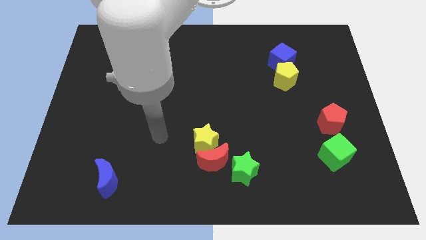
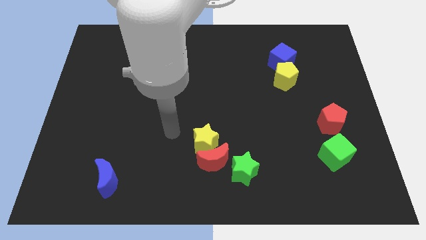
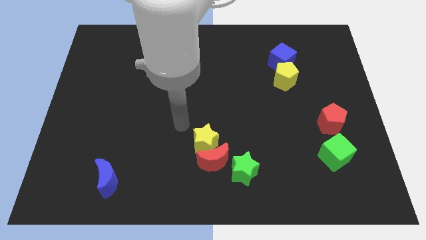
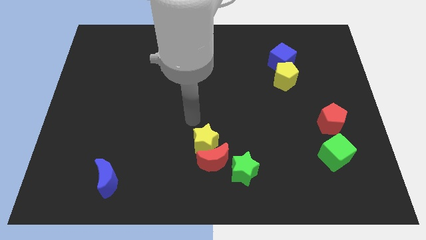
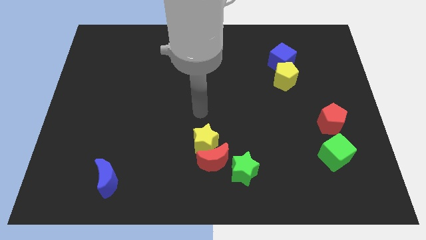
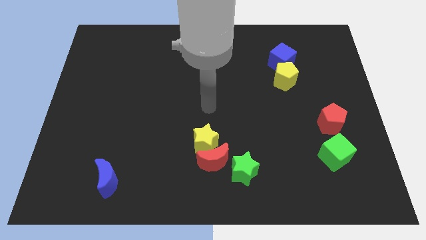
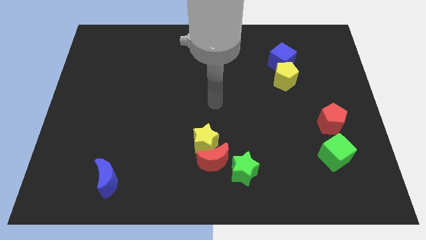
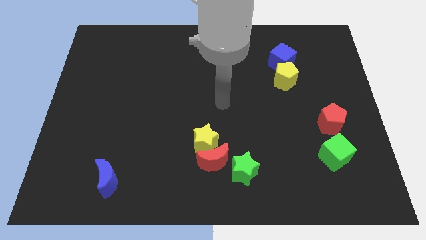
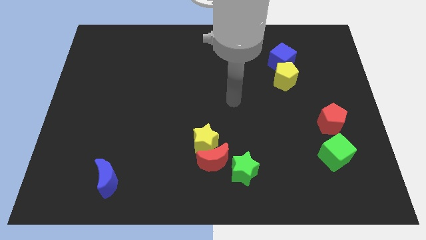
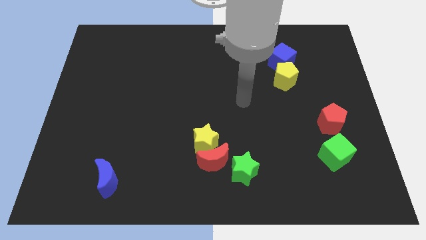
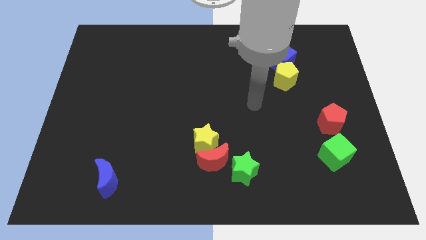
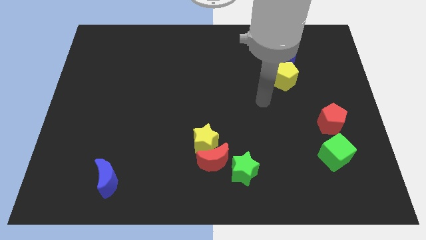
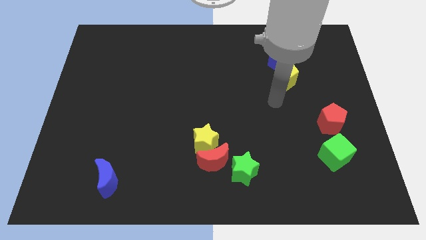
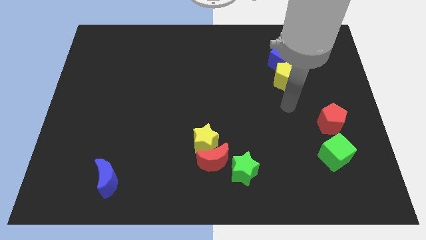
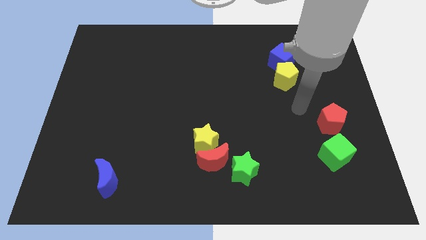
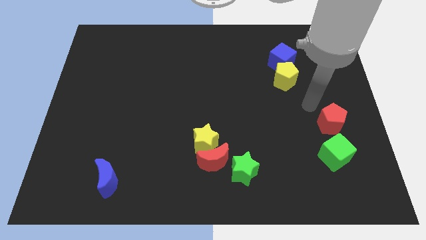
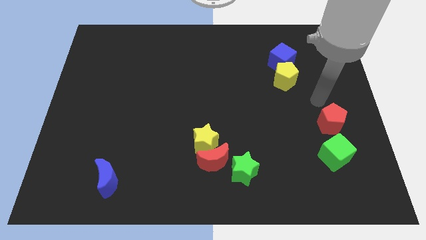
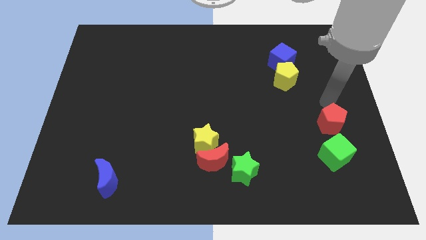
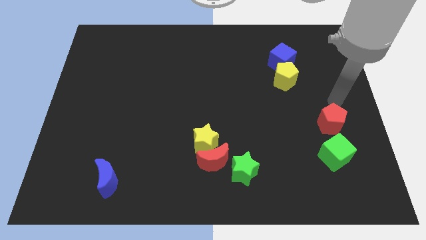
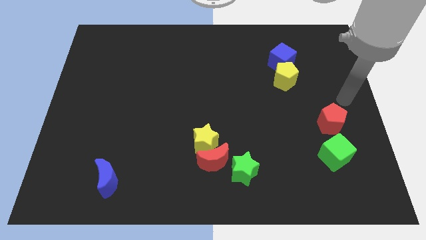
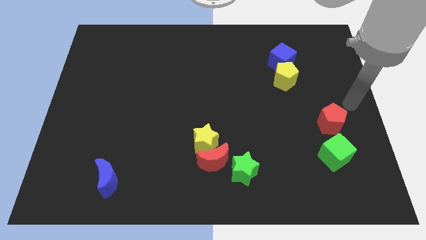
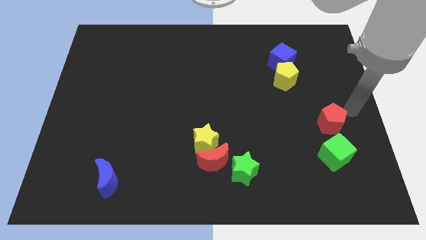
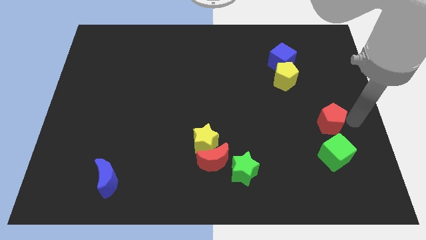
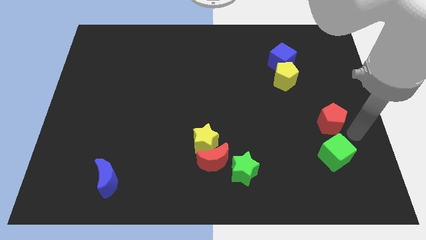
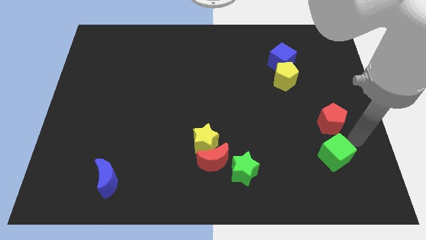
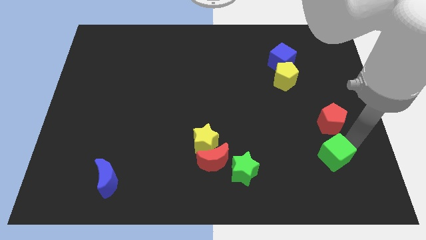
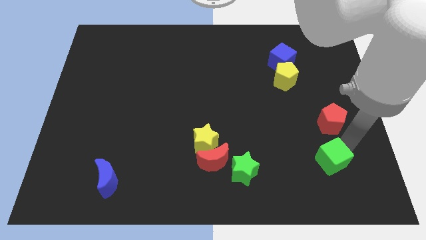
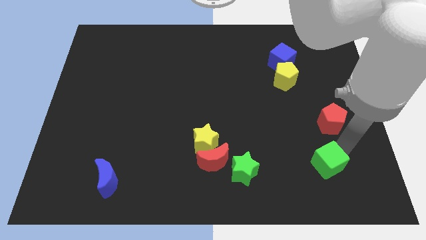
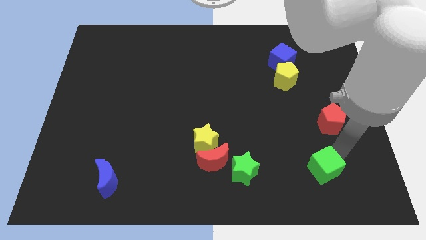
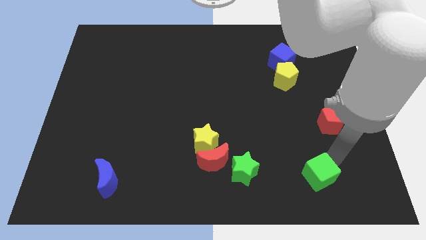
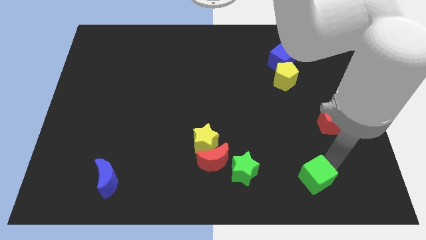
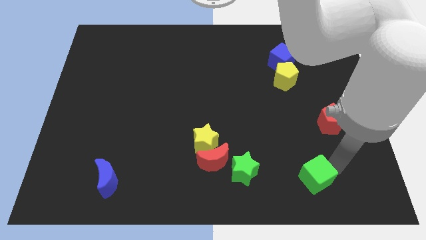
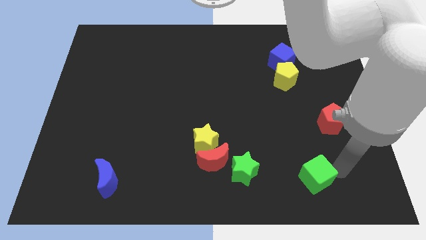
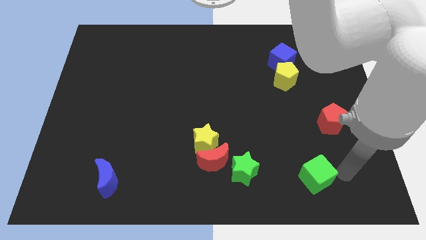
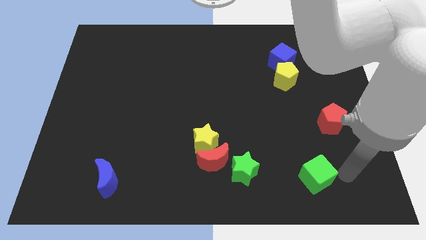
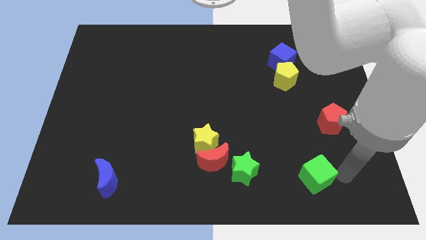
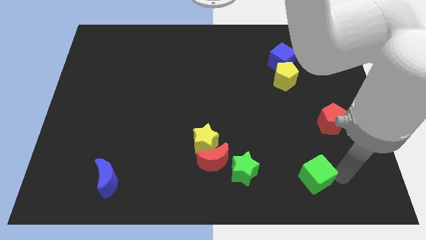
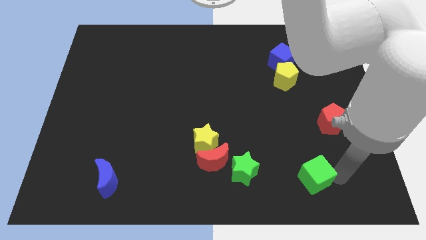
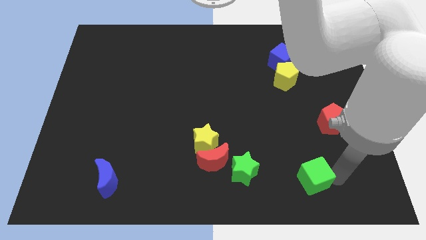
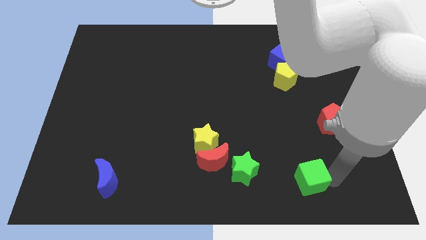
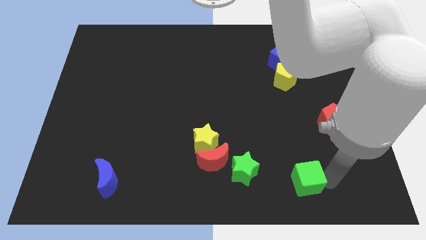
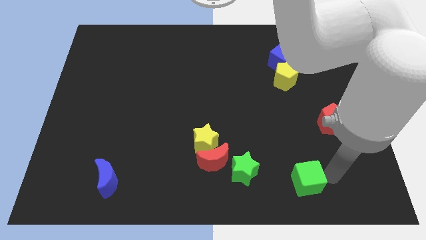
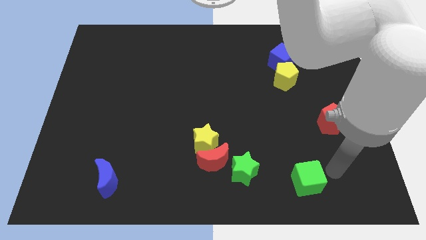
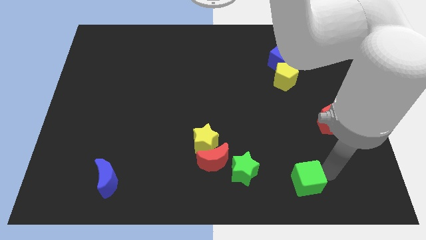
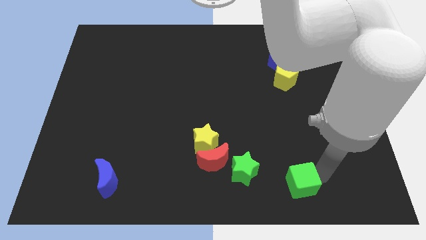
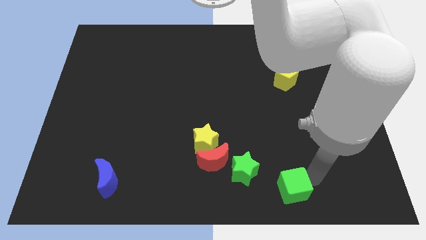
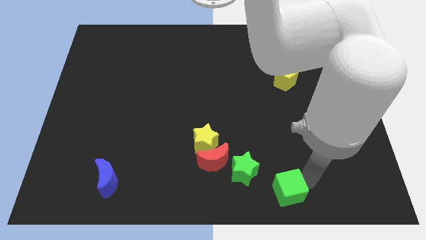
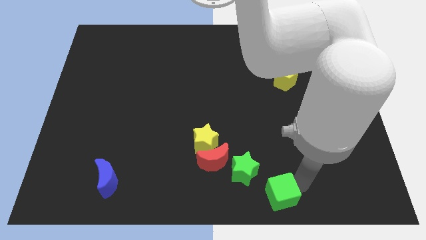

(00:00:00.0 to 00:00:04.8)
push the green cube to the bottom side

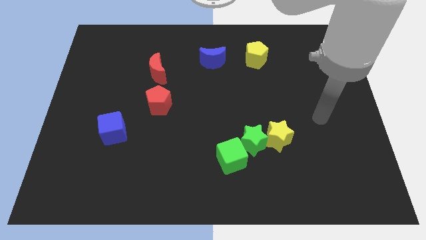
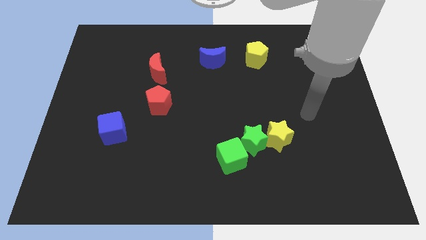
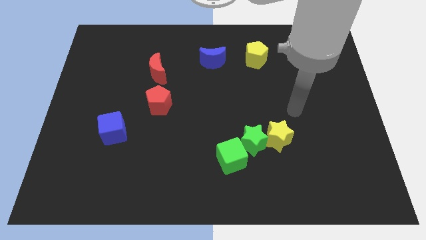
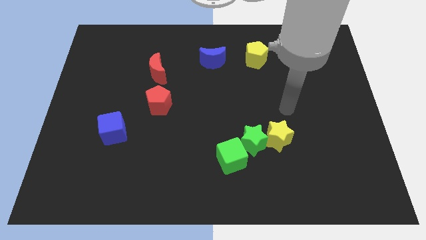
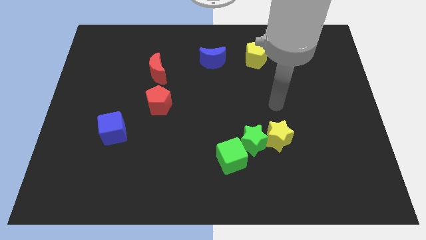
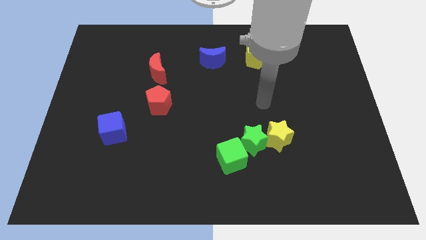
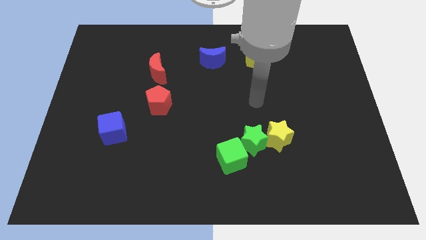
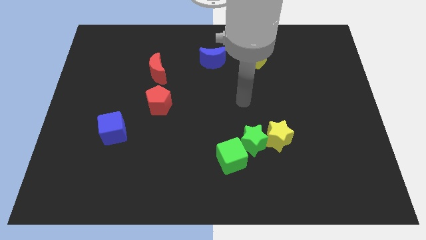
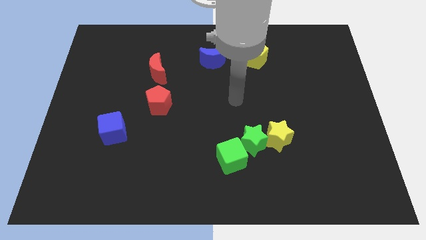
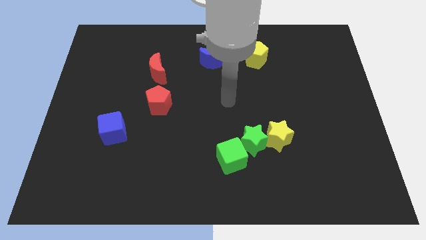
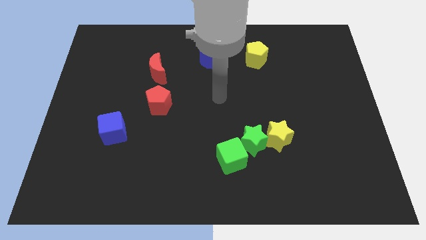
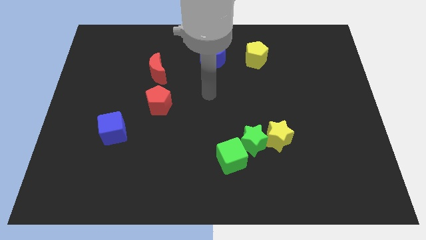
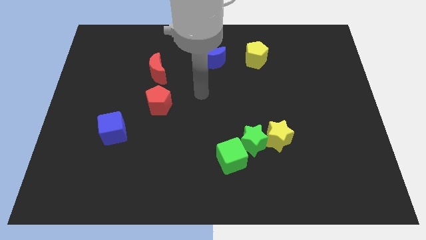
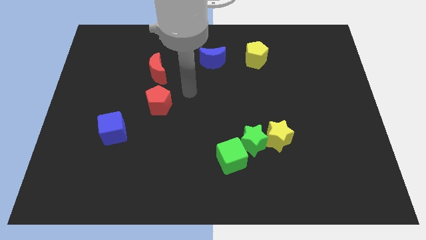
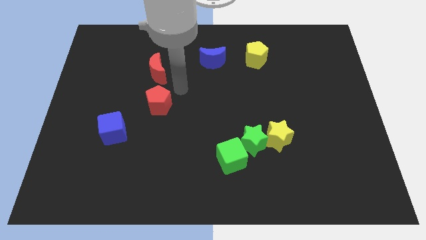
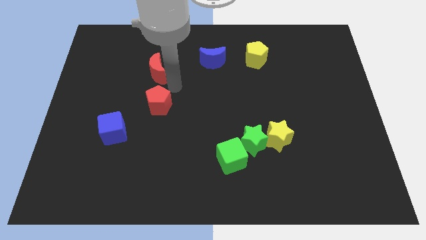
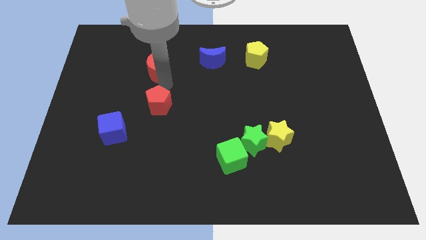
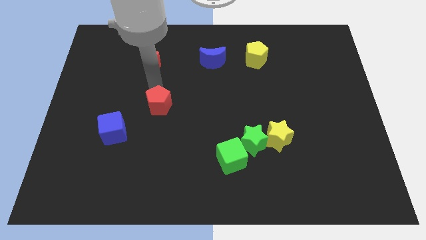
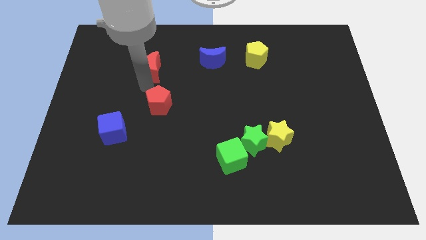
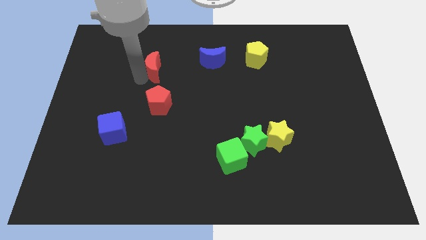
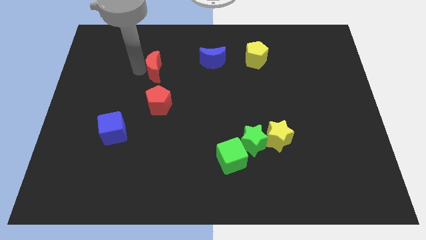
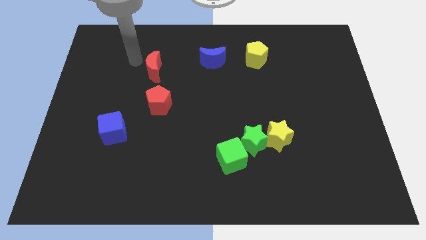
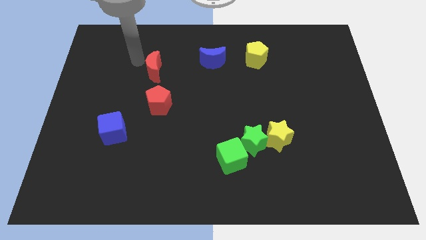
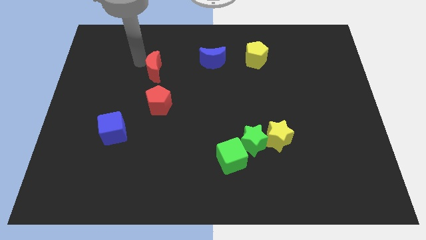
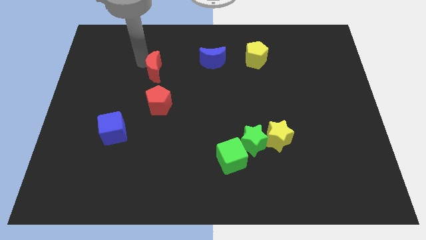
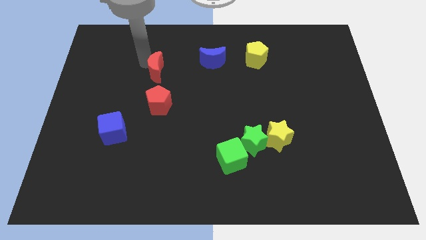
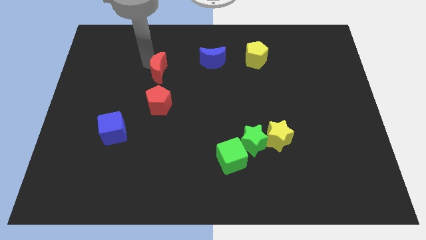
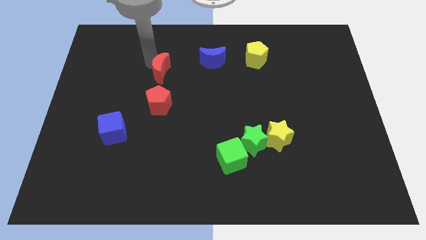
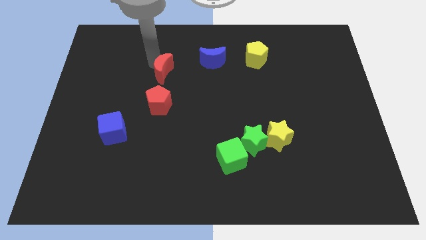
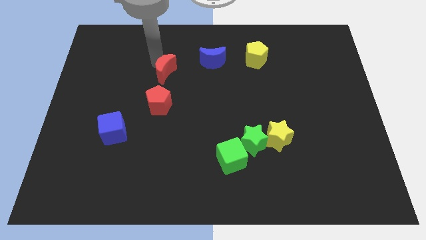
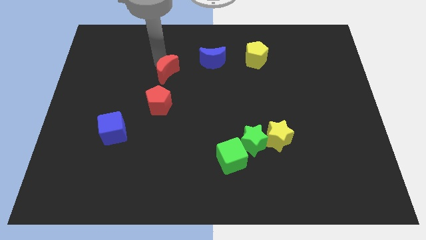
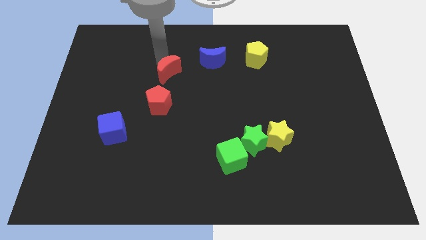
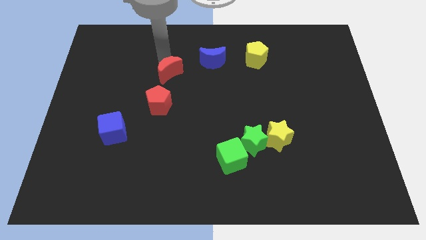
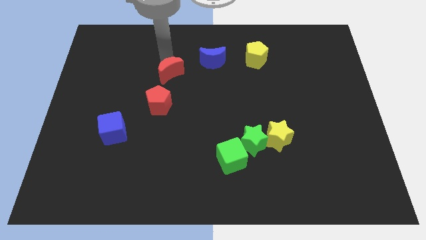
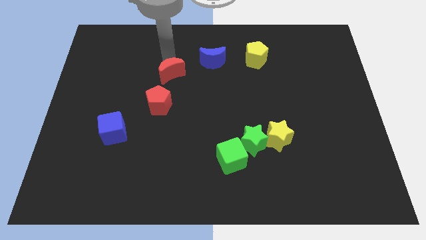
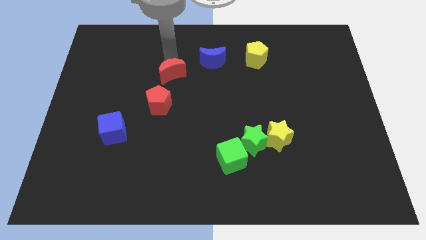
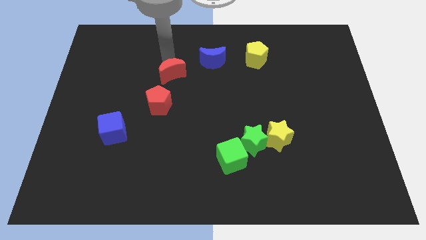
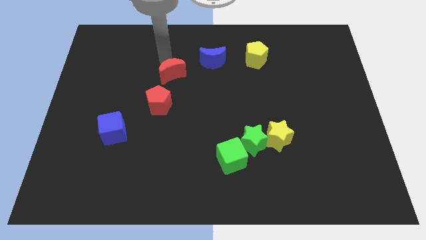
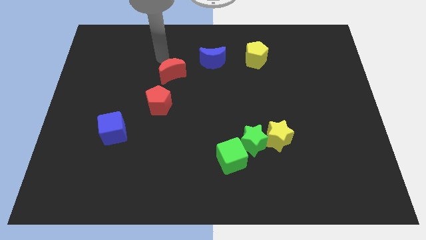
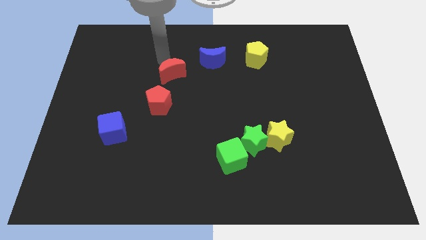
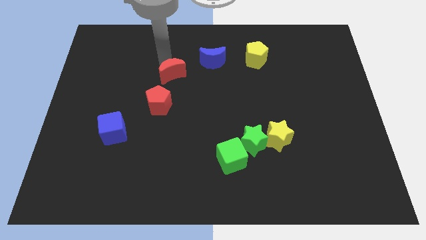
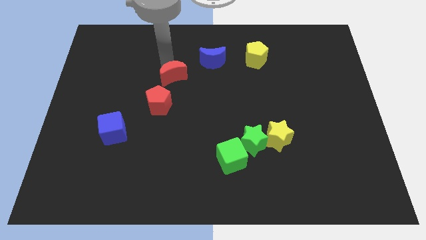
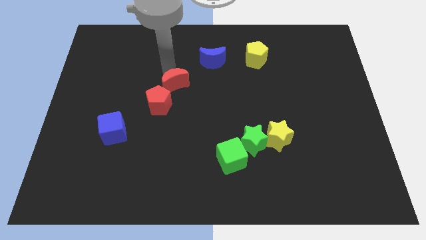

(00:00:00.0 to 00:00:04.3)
push the red moon to the center of the board
